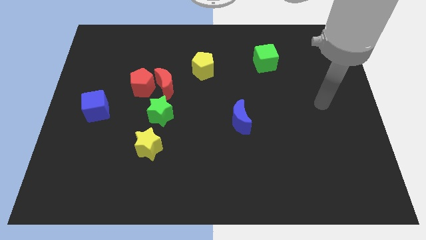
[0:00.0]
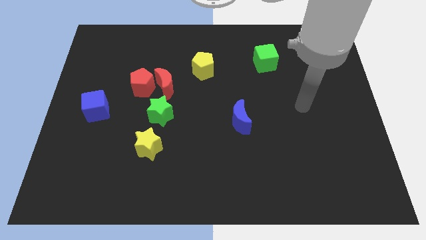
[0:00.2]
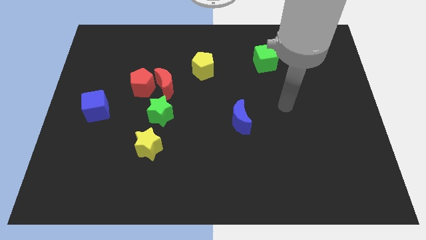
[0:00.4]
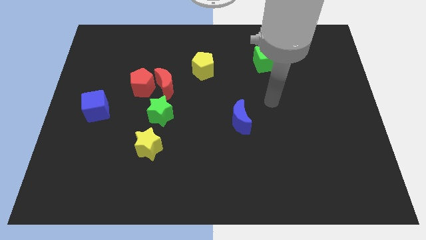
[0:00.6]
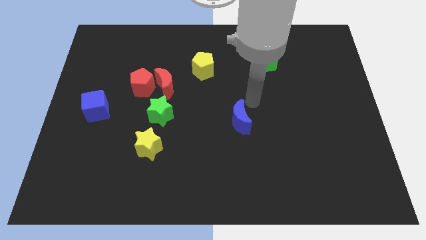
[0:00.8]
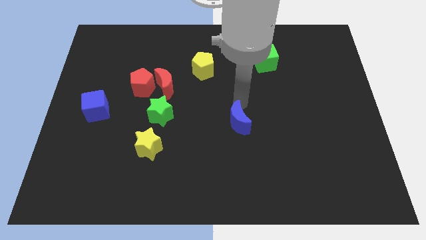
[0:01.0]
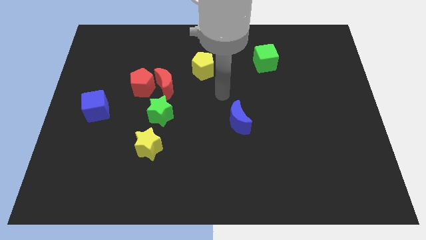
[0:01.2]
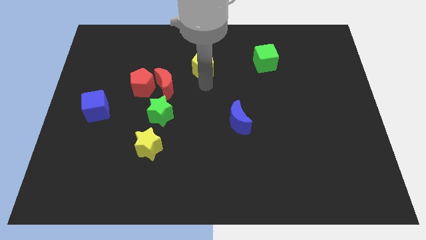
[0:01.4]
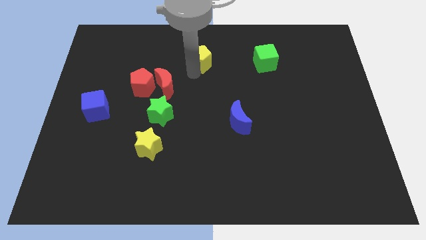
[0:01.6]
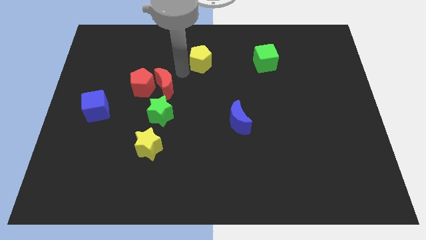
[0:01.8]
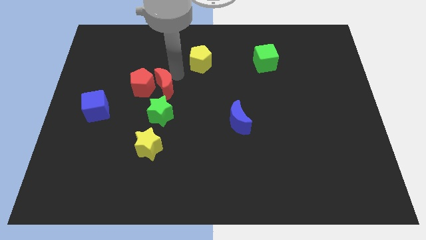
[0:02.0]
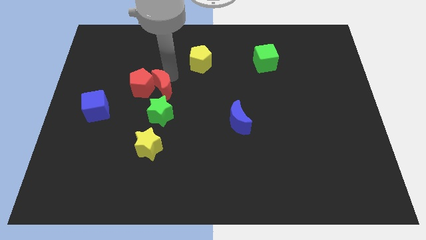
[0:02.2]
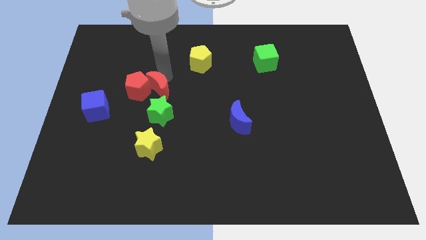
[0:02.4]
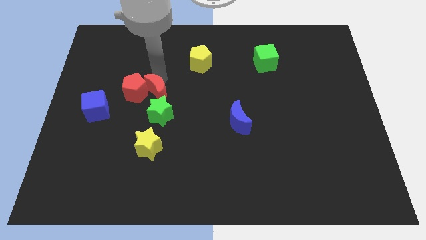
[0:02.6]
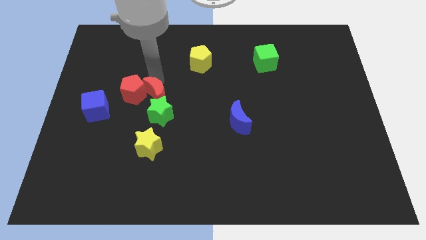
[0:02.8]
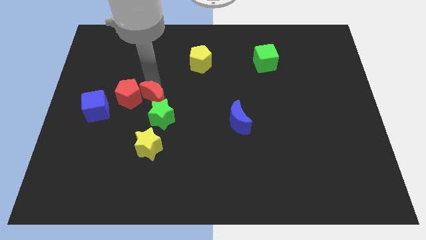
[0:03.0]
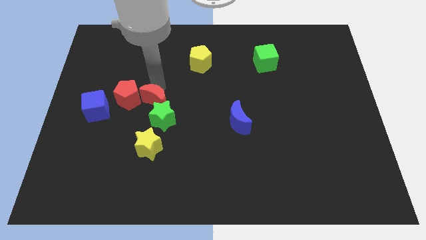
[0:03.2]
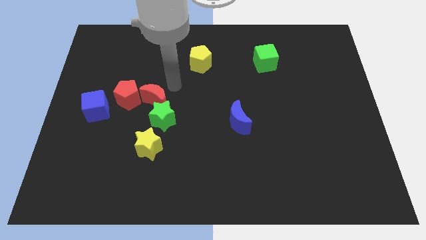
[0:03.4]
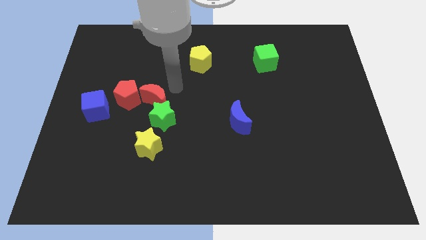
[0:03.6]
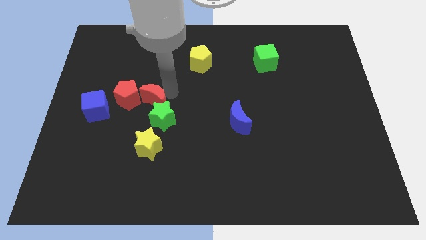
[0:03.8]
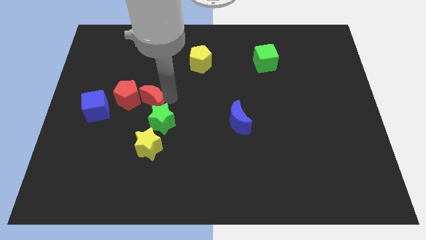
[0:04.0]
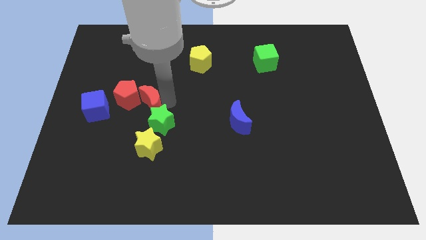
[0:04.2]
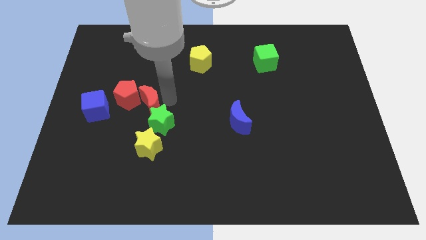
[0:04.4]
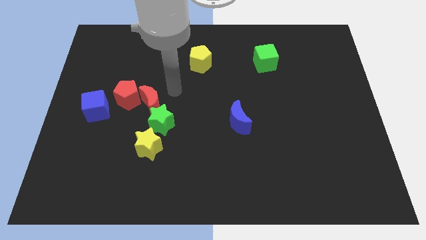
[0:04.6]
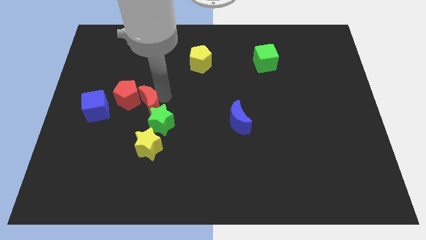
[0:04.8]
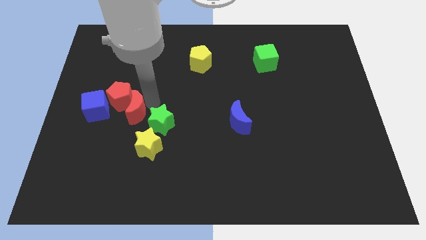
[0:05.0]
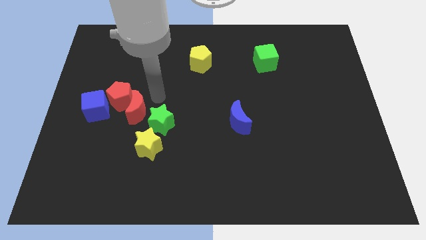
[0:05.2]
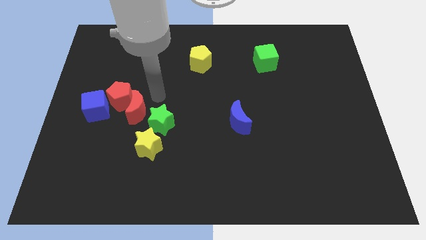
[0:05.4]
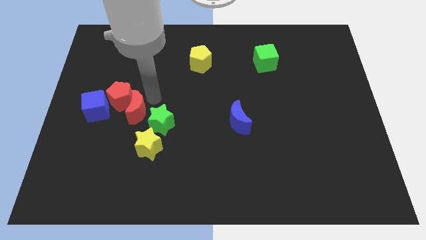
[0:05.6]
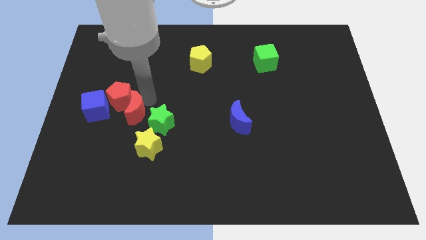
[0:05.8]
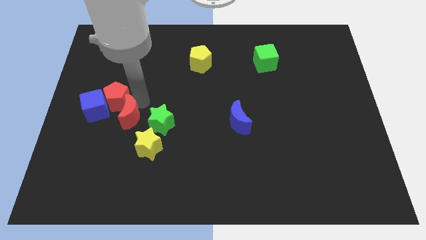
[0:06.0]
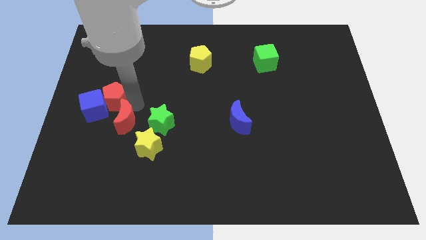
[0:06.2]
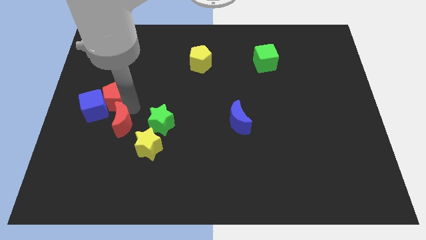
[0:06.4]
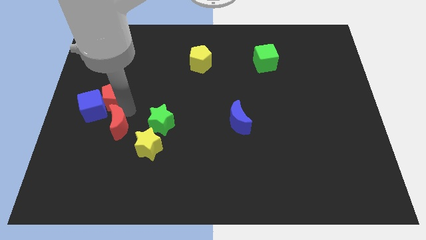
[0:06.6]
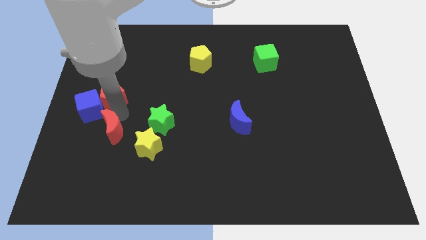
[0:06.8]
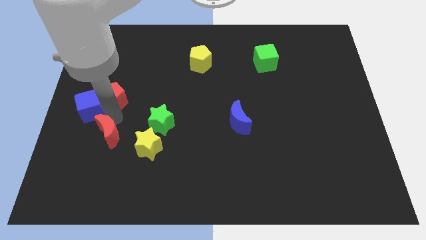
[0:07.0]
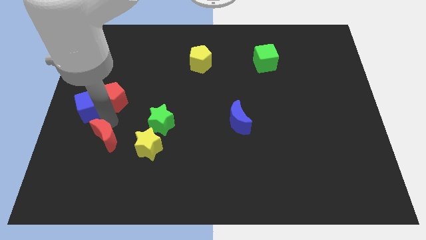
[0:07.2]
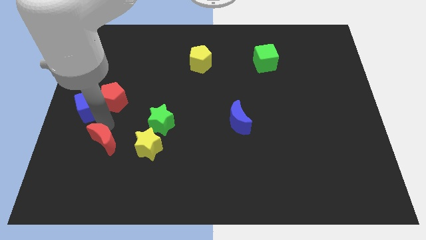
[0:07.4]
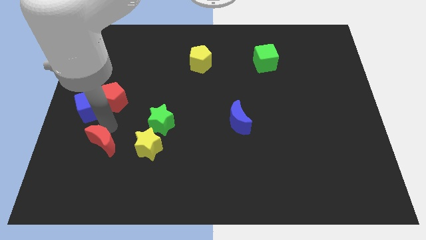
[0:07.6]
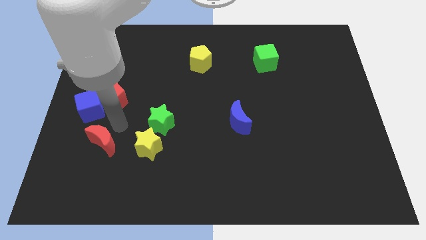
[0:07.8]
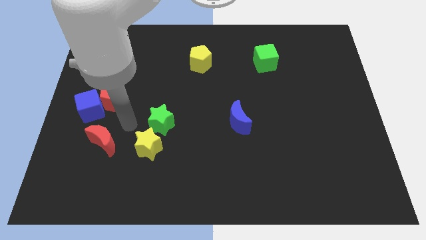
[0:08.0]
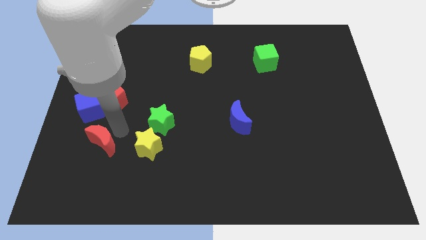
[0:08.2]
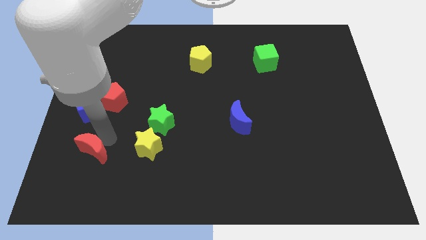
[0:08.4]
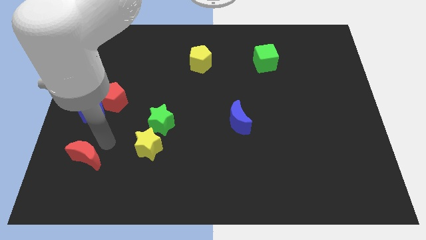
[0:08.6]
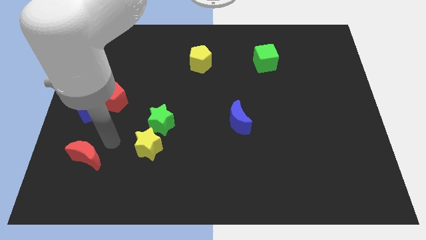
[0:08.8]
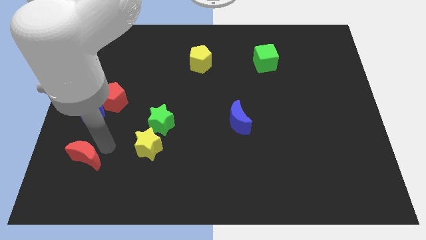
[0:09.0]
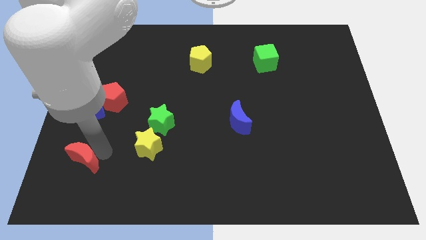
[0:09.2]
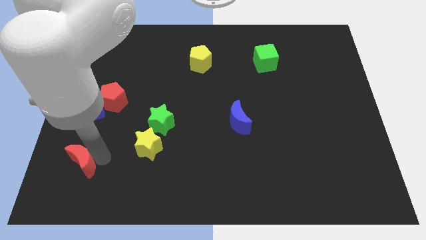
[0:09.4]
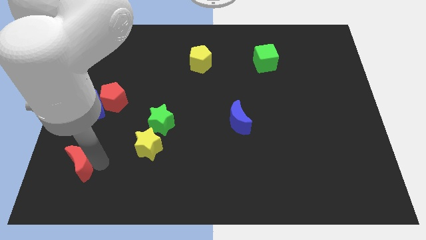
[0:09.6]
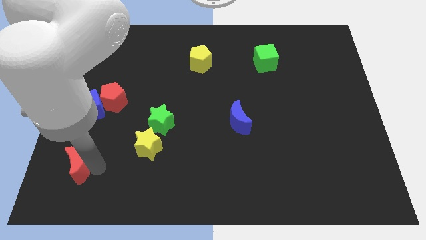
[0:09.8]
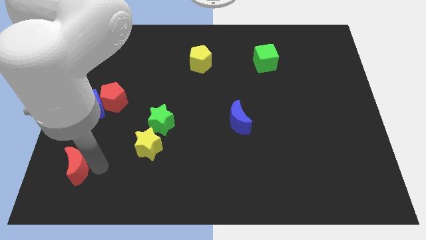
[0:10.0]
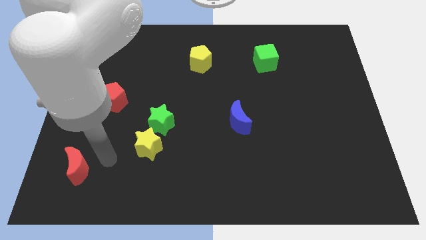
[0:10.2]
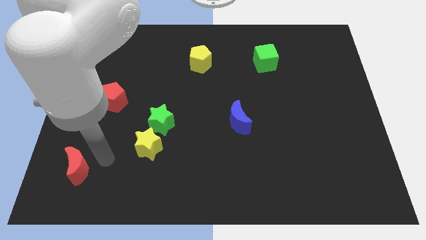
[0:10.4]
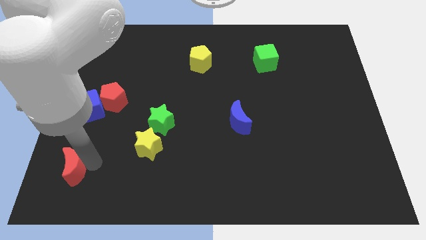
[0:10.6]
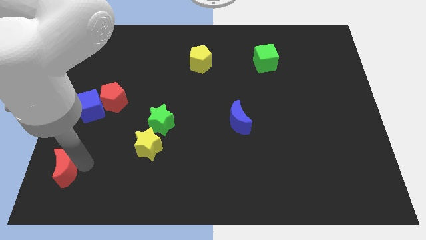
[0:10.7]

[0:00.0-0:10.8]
move the red moon to the bottom left of the board

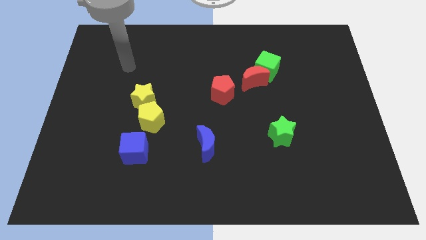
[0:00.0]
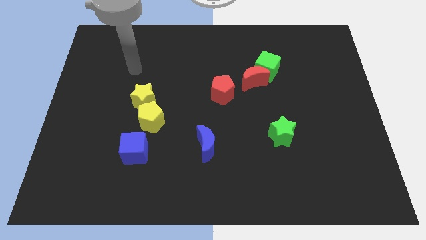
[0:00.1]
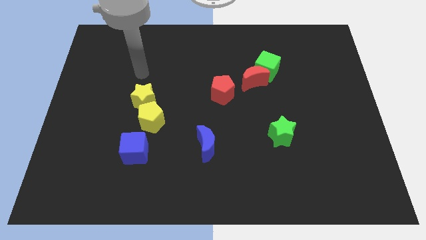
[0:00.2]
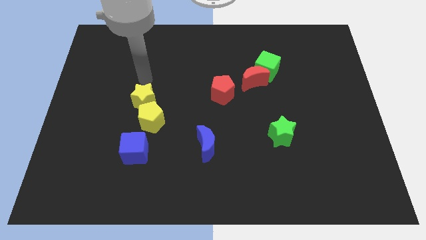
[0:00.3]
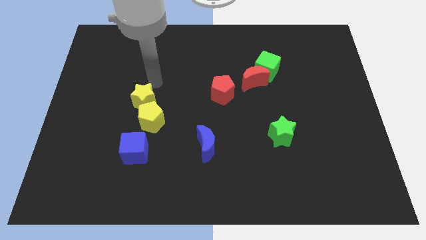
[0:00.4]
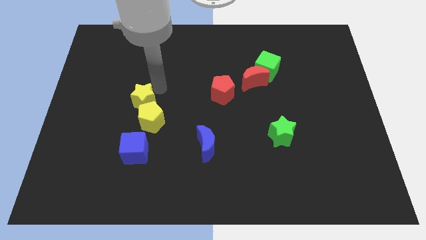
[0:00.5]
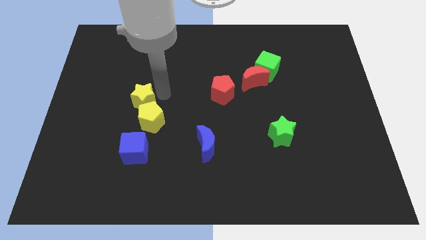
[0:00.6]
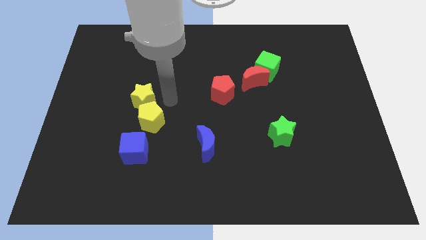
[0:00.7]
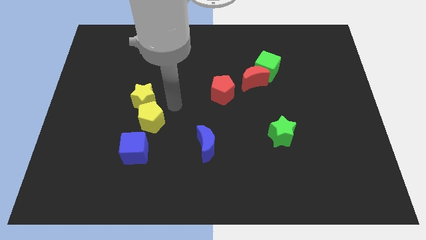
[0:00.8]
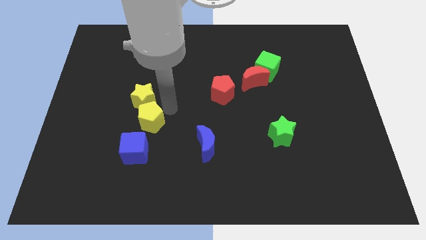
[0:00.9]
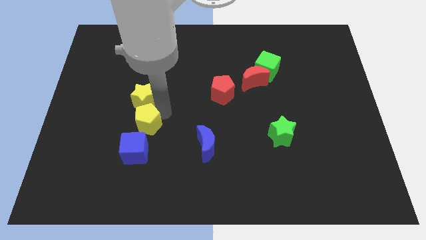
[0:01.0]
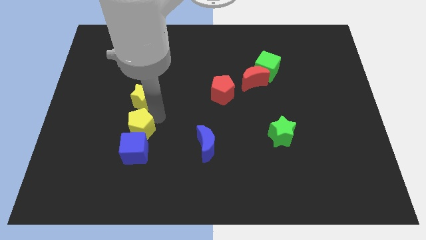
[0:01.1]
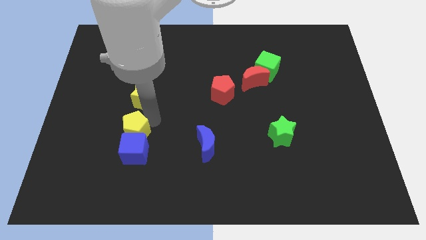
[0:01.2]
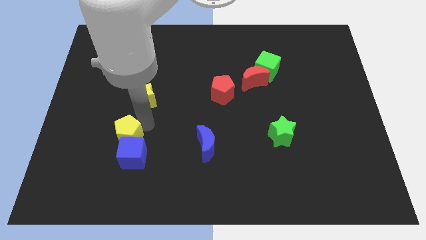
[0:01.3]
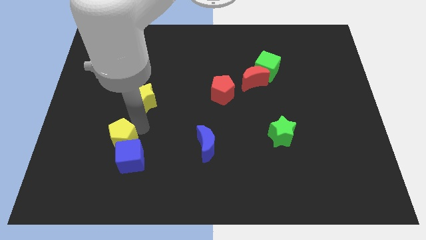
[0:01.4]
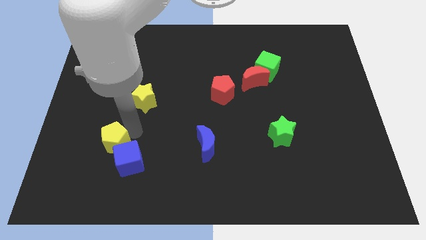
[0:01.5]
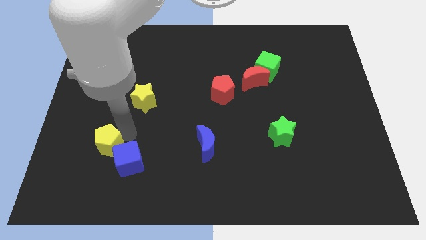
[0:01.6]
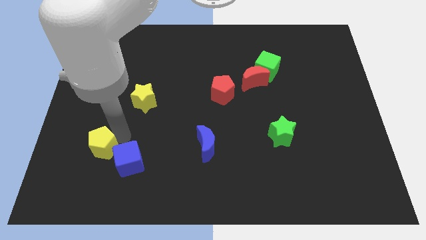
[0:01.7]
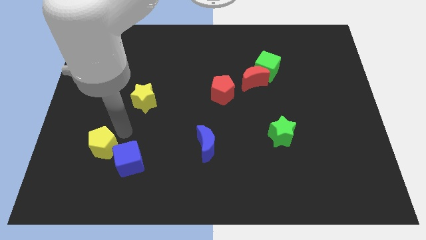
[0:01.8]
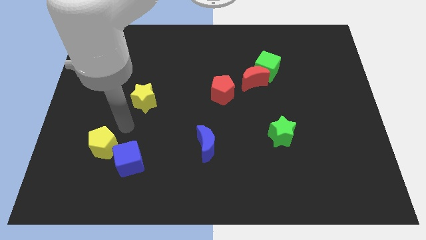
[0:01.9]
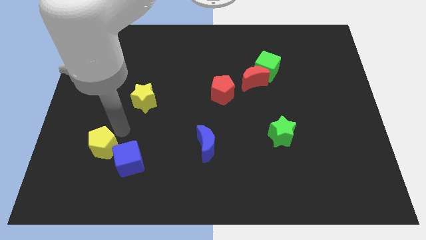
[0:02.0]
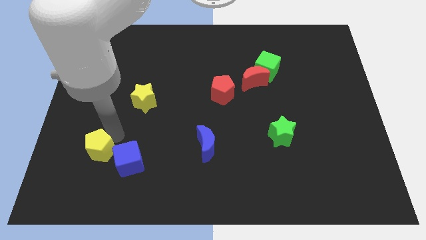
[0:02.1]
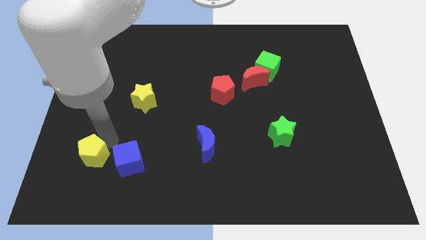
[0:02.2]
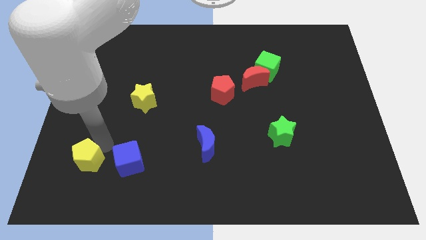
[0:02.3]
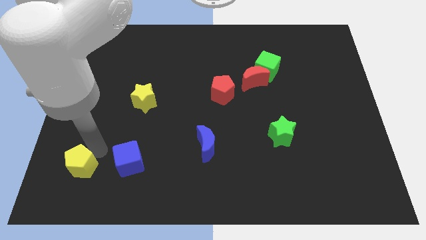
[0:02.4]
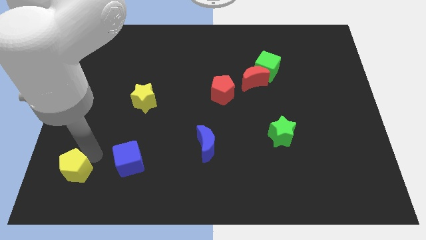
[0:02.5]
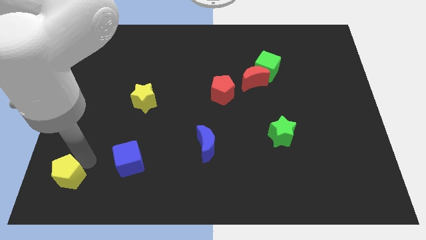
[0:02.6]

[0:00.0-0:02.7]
push the yellow pentagon to the lower left corner
